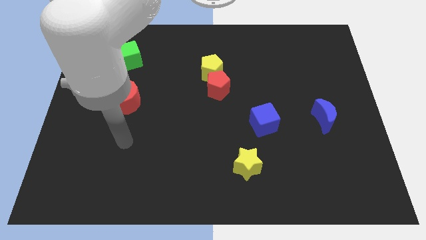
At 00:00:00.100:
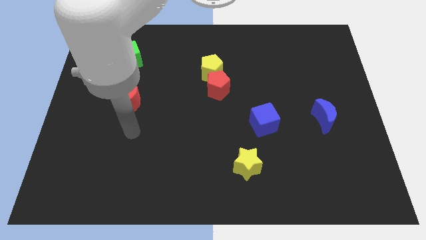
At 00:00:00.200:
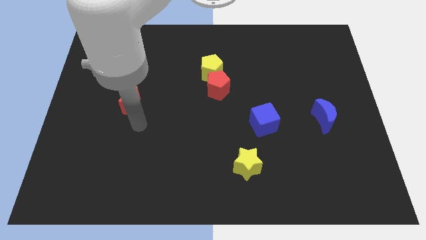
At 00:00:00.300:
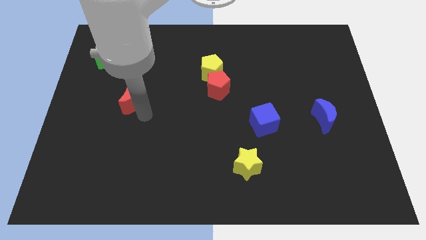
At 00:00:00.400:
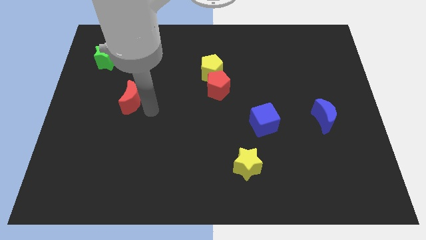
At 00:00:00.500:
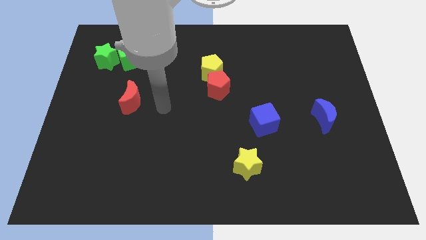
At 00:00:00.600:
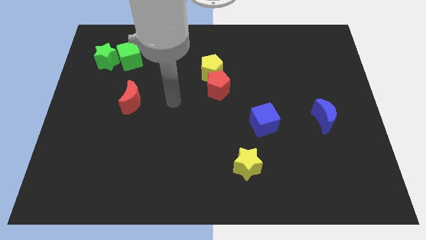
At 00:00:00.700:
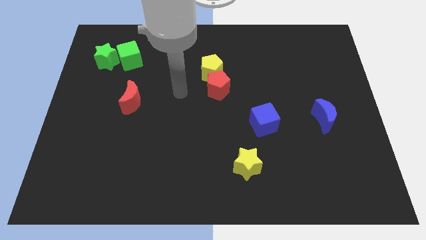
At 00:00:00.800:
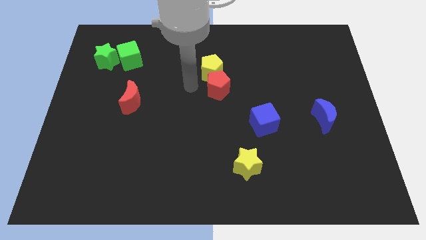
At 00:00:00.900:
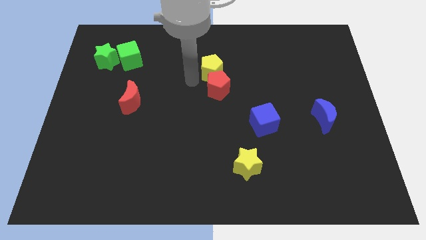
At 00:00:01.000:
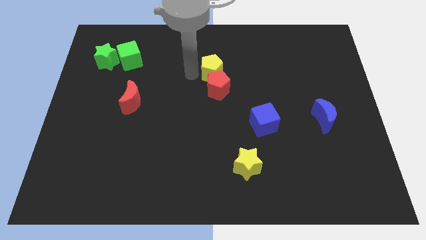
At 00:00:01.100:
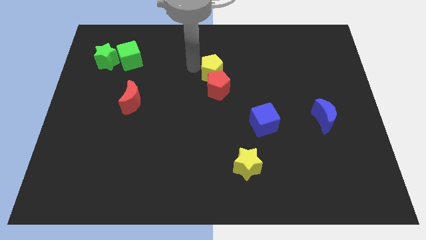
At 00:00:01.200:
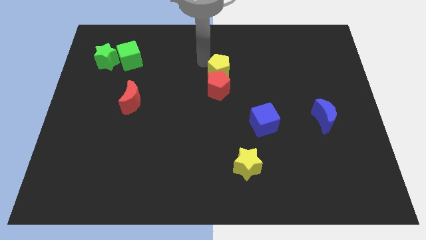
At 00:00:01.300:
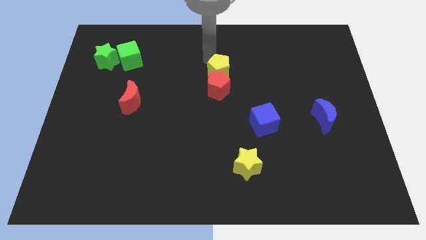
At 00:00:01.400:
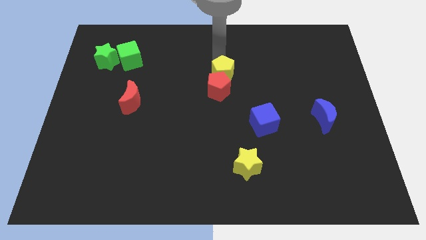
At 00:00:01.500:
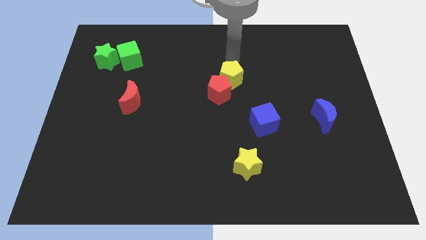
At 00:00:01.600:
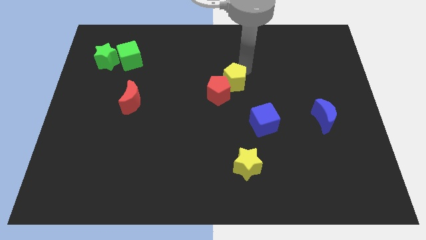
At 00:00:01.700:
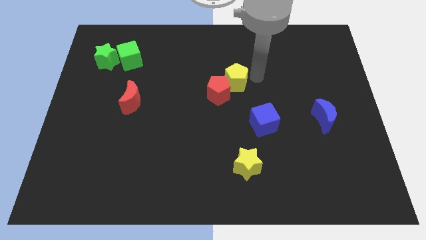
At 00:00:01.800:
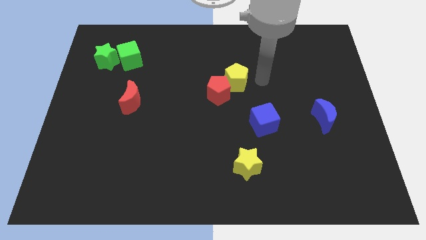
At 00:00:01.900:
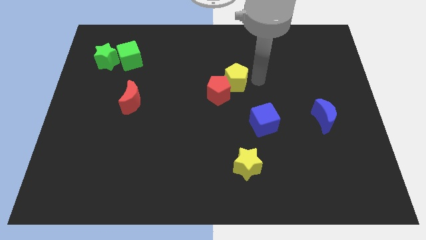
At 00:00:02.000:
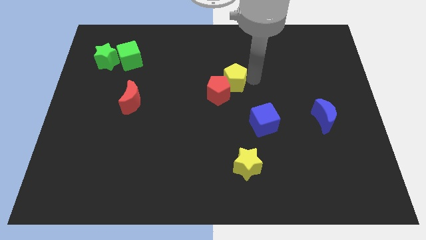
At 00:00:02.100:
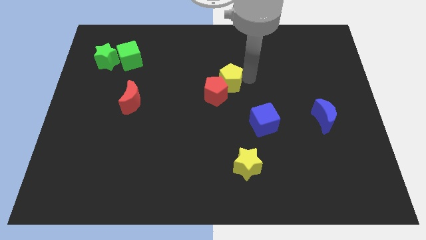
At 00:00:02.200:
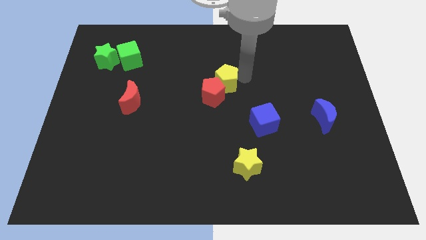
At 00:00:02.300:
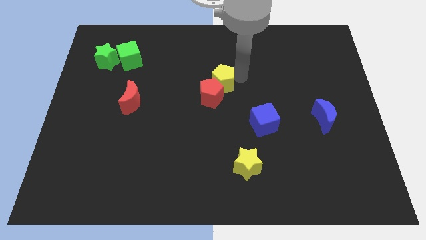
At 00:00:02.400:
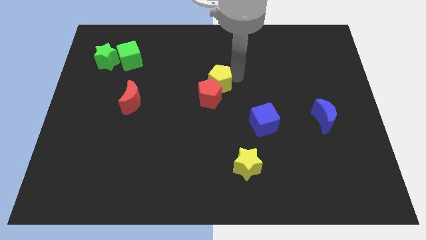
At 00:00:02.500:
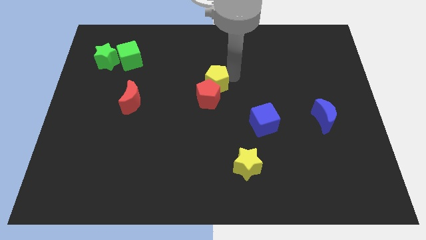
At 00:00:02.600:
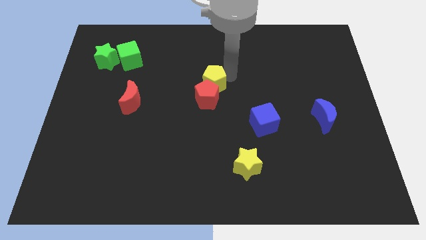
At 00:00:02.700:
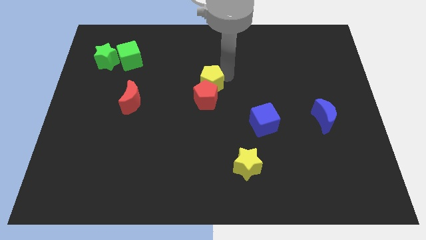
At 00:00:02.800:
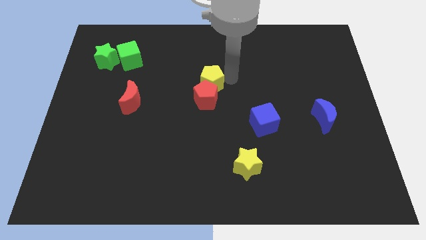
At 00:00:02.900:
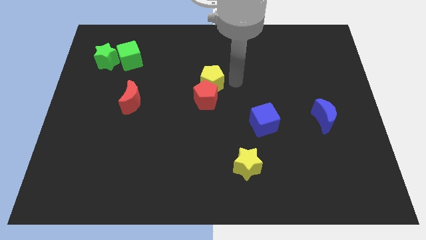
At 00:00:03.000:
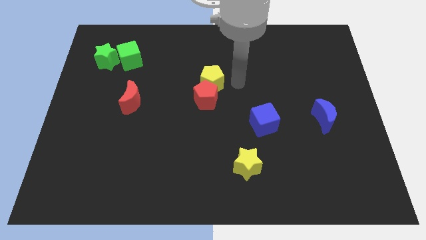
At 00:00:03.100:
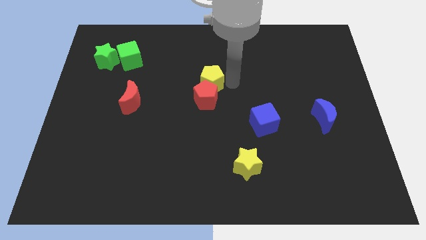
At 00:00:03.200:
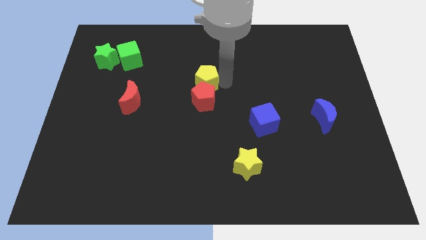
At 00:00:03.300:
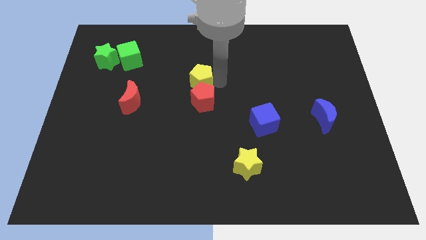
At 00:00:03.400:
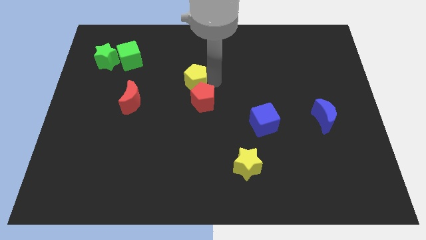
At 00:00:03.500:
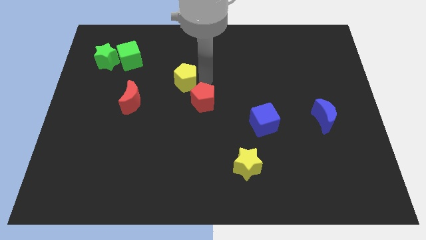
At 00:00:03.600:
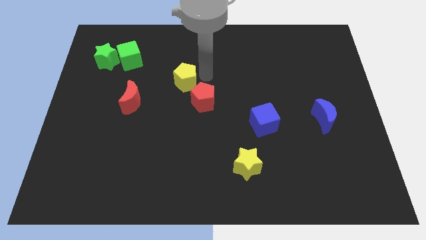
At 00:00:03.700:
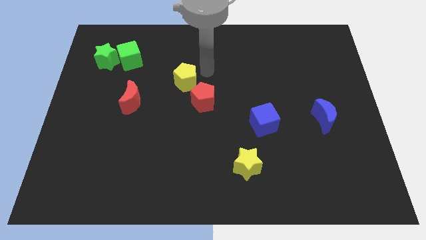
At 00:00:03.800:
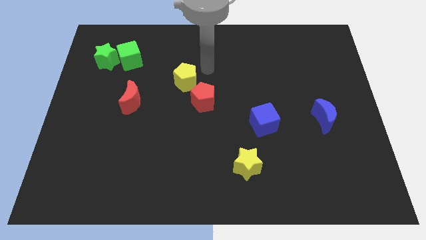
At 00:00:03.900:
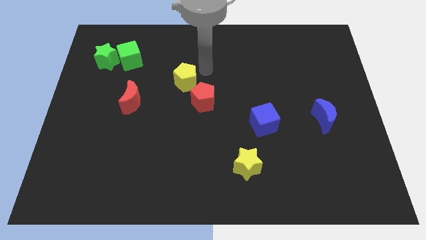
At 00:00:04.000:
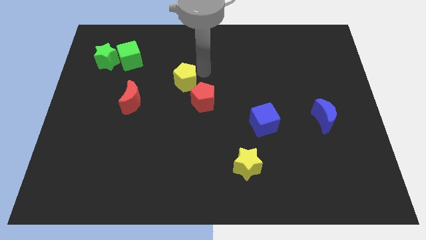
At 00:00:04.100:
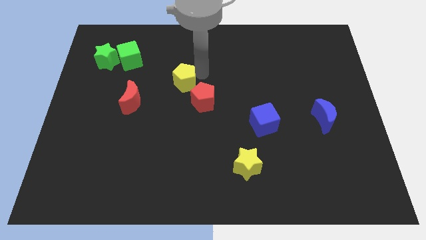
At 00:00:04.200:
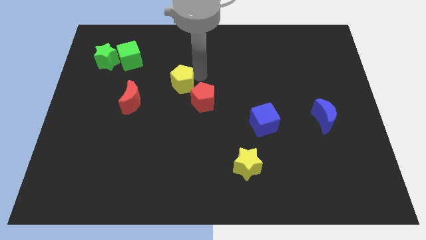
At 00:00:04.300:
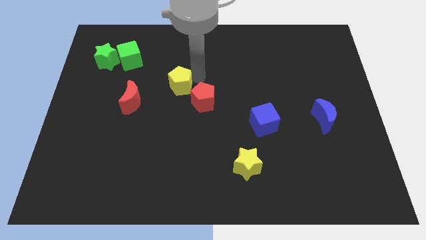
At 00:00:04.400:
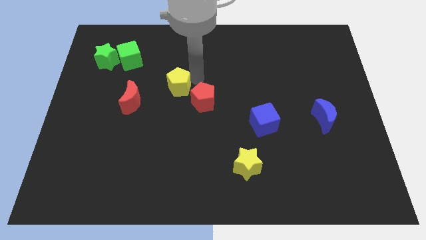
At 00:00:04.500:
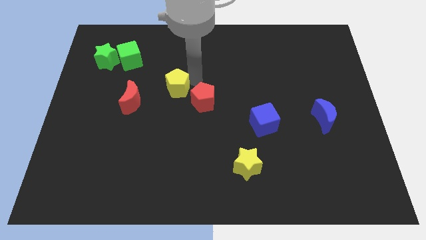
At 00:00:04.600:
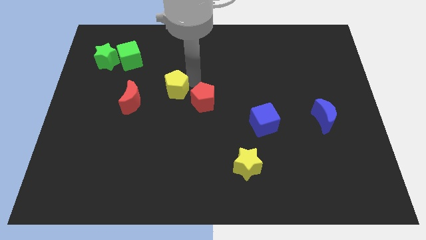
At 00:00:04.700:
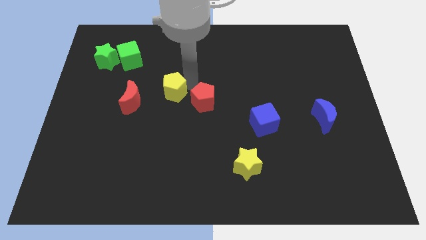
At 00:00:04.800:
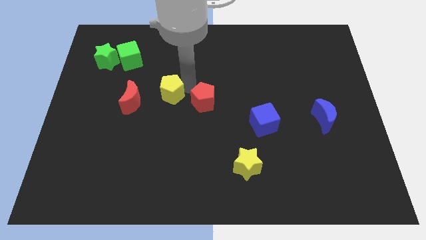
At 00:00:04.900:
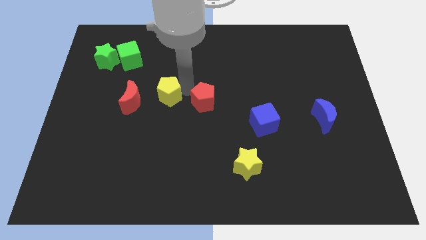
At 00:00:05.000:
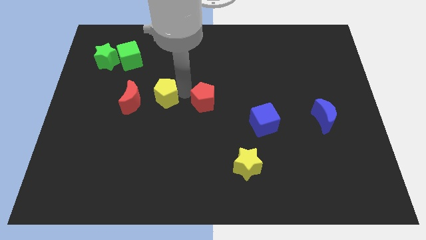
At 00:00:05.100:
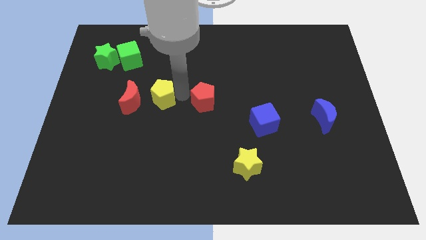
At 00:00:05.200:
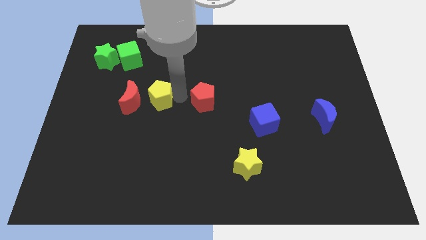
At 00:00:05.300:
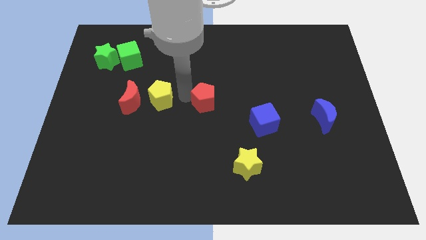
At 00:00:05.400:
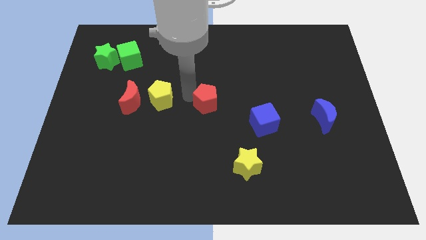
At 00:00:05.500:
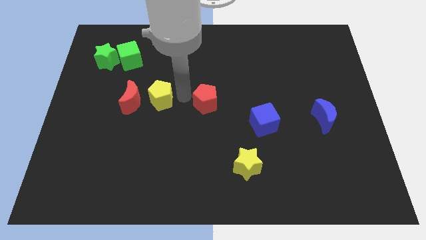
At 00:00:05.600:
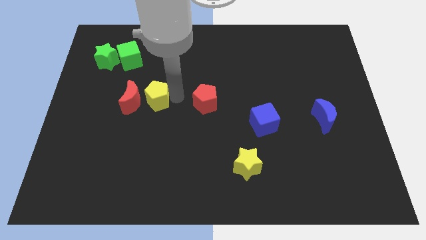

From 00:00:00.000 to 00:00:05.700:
push the yellow pentagon to the red moon
